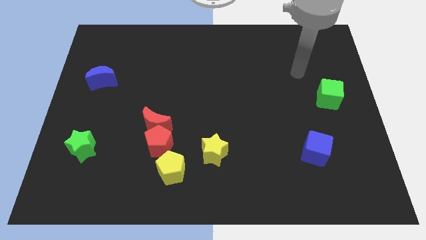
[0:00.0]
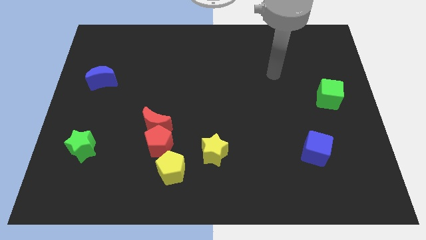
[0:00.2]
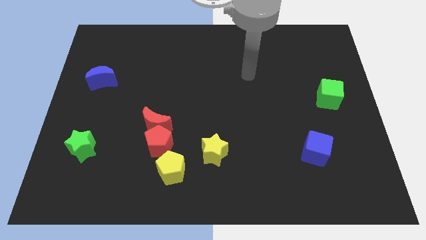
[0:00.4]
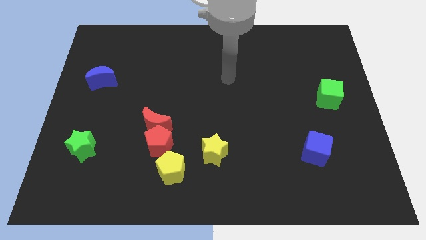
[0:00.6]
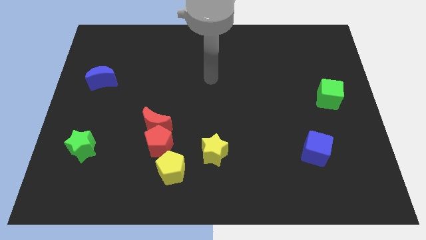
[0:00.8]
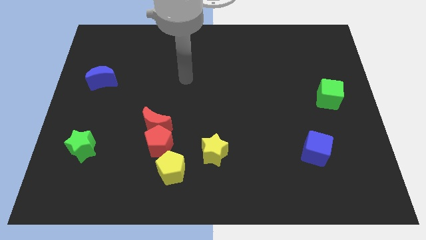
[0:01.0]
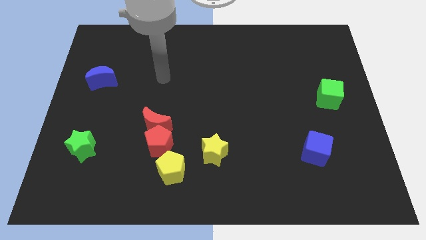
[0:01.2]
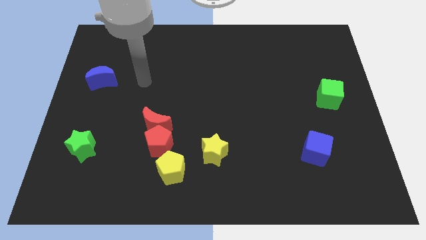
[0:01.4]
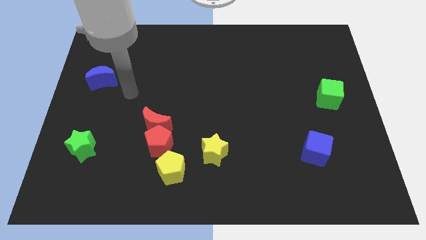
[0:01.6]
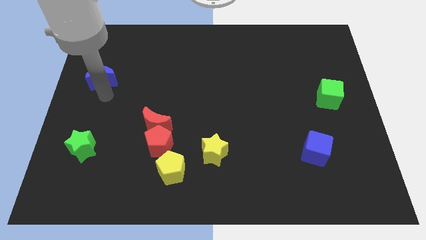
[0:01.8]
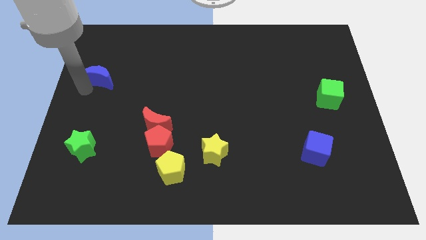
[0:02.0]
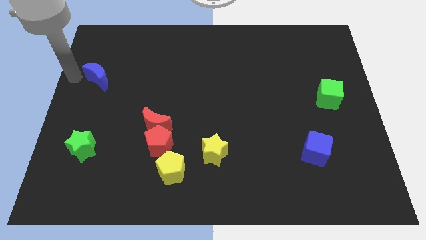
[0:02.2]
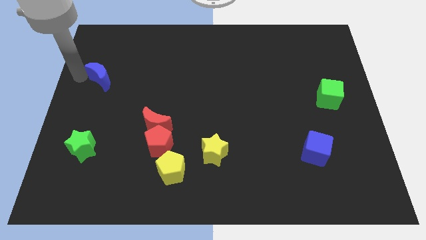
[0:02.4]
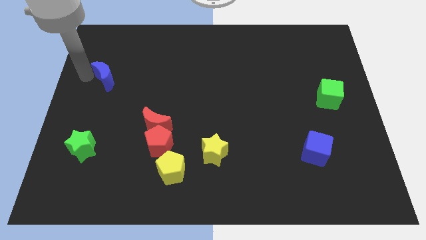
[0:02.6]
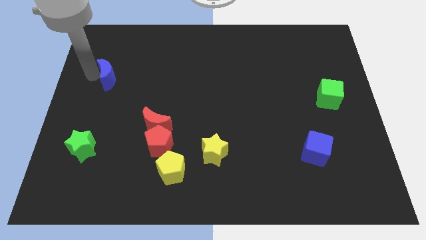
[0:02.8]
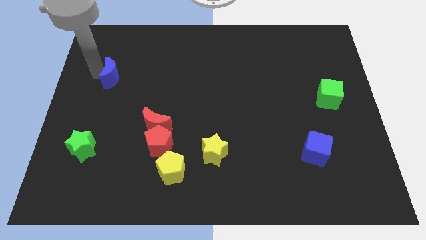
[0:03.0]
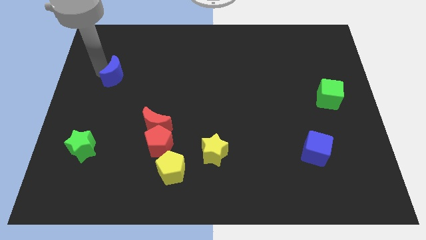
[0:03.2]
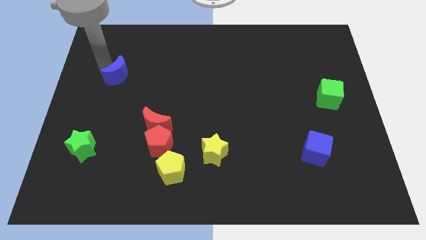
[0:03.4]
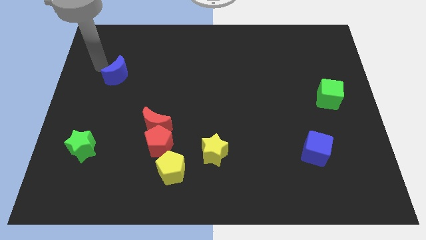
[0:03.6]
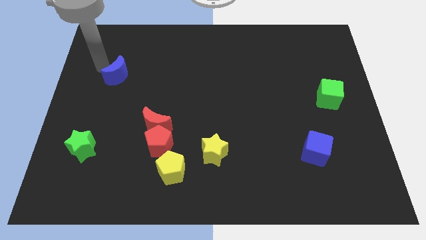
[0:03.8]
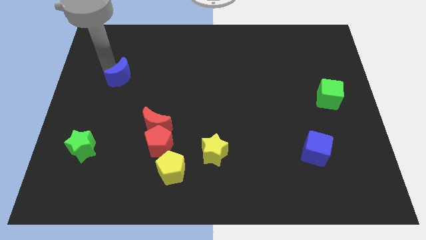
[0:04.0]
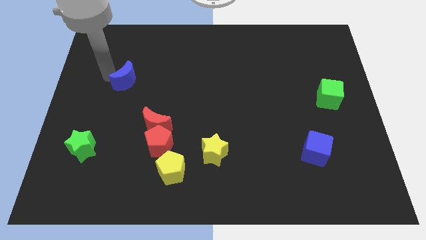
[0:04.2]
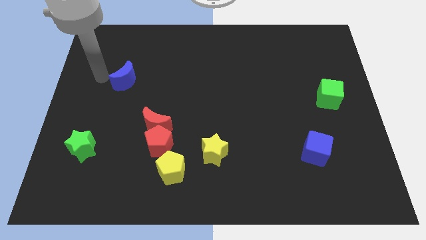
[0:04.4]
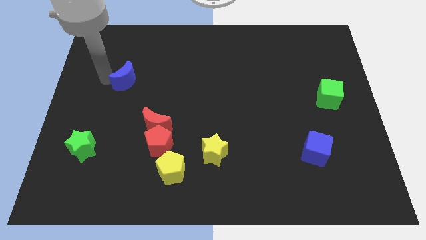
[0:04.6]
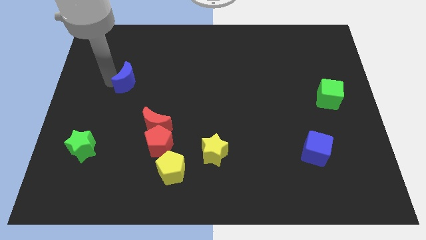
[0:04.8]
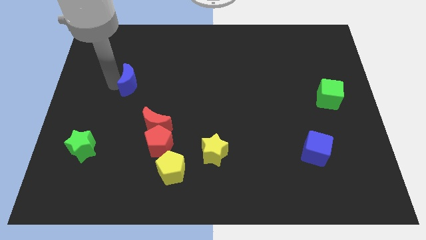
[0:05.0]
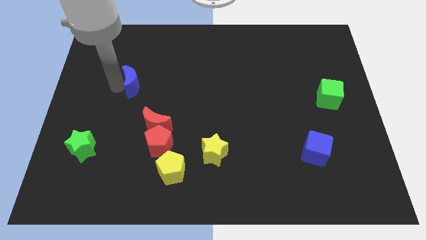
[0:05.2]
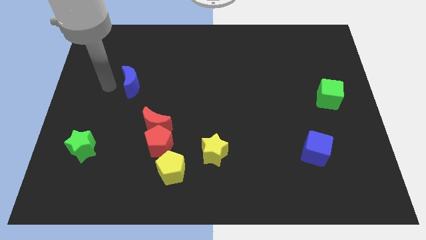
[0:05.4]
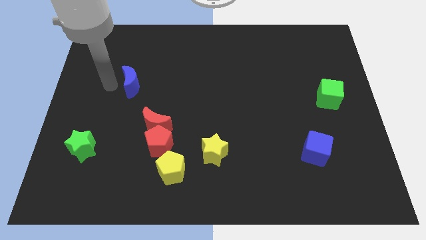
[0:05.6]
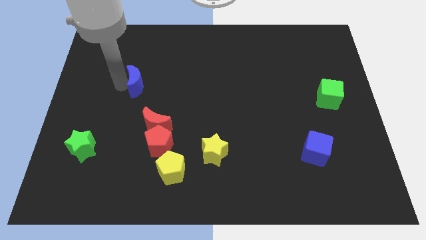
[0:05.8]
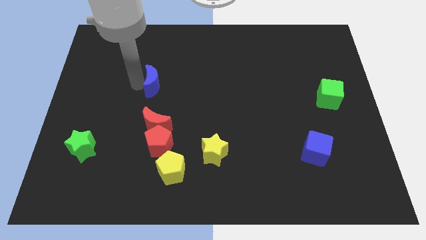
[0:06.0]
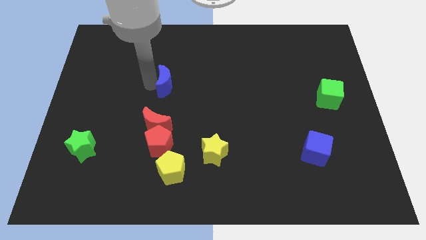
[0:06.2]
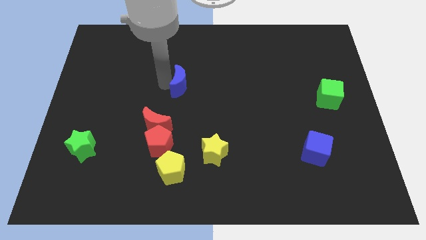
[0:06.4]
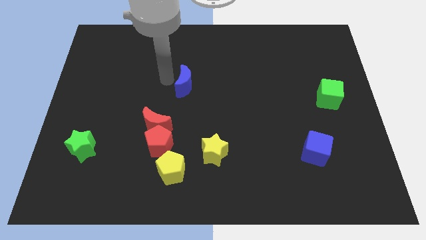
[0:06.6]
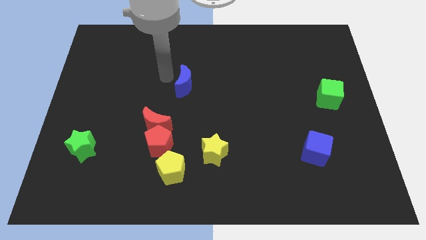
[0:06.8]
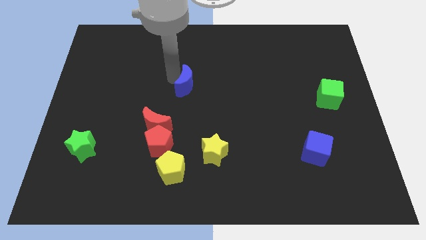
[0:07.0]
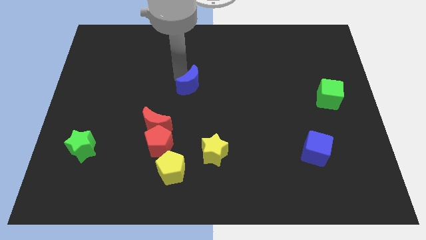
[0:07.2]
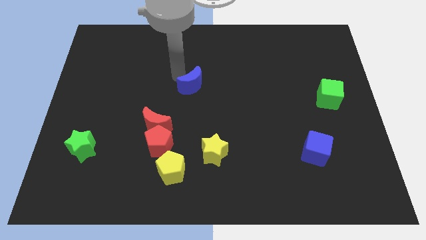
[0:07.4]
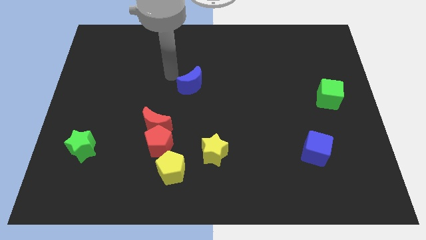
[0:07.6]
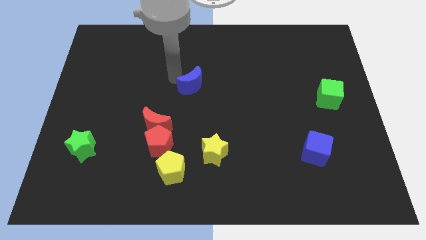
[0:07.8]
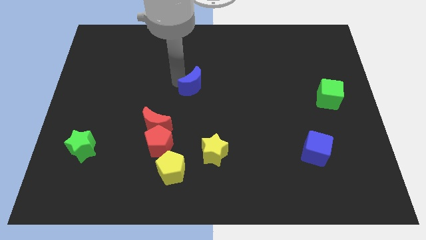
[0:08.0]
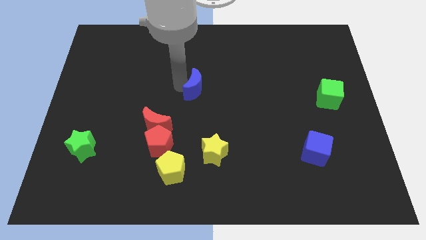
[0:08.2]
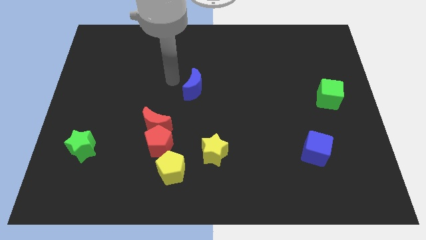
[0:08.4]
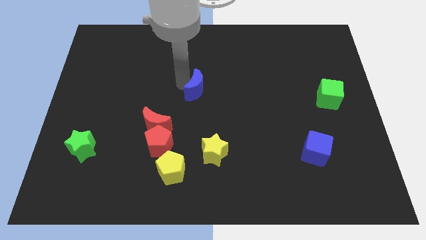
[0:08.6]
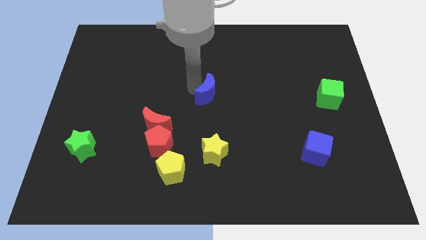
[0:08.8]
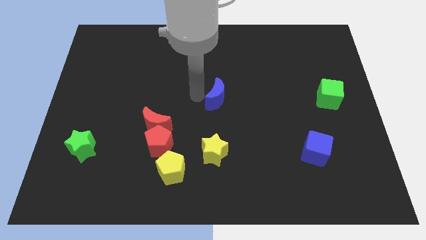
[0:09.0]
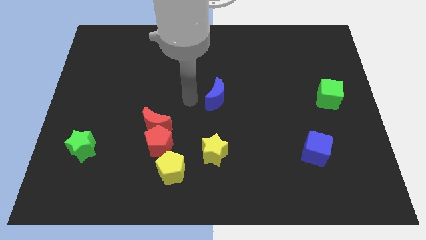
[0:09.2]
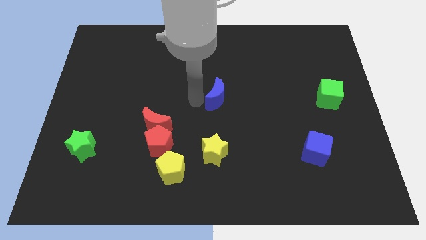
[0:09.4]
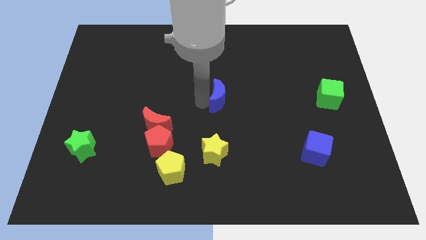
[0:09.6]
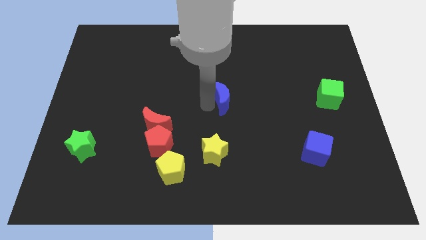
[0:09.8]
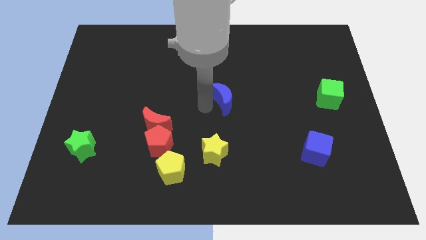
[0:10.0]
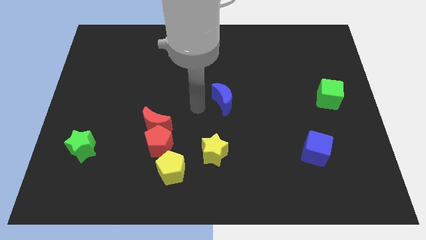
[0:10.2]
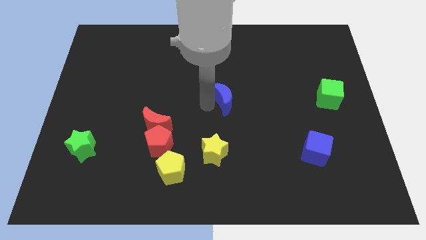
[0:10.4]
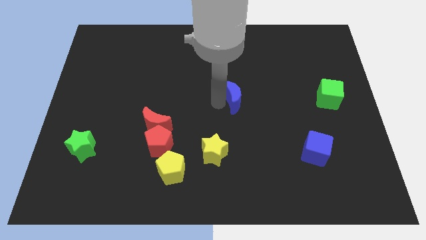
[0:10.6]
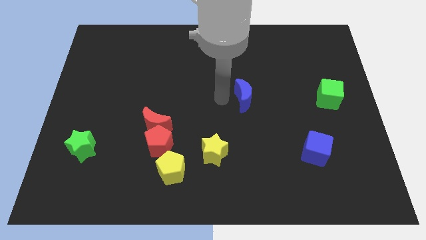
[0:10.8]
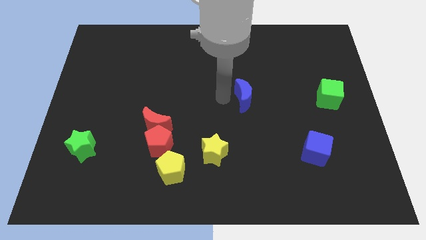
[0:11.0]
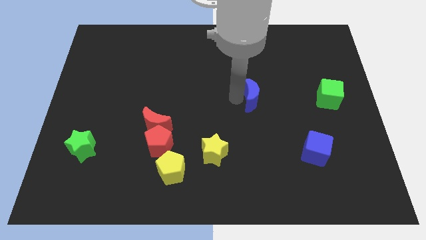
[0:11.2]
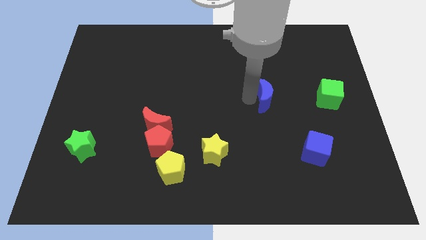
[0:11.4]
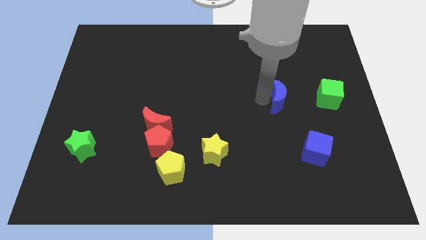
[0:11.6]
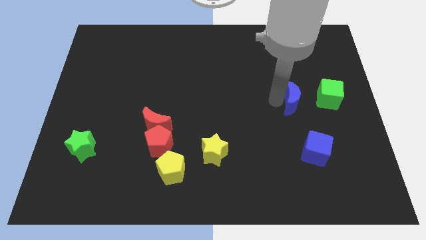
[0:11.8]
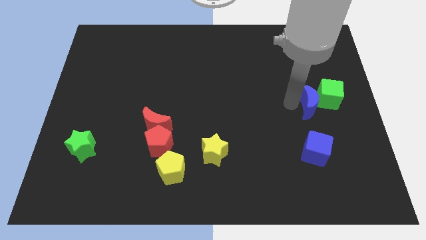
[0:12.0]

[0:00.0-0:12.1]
push the blue moon next to the green cube

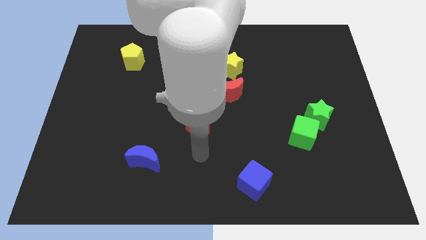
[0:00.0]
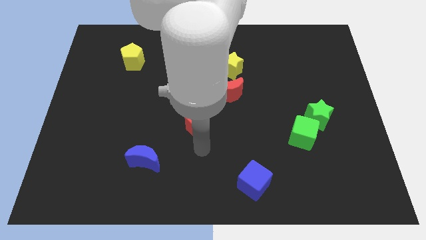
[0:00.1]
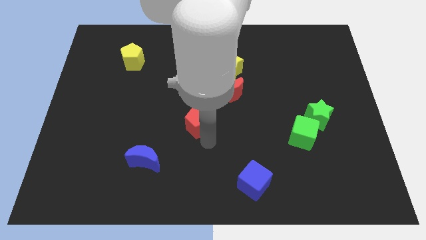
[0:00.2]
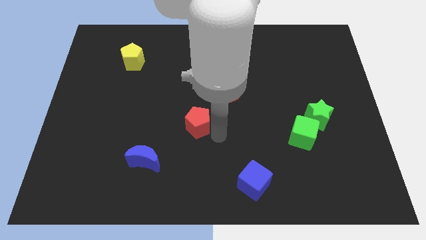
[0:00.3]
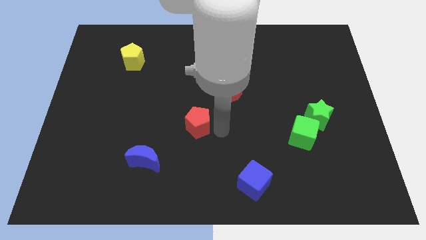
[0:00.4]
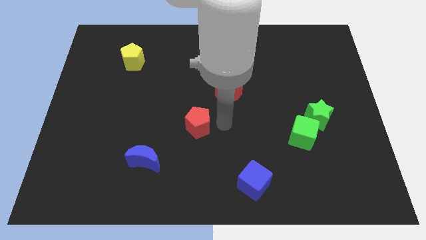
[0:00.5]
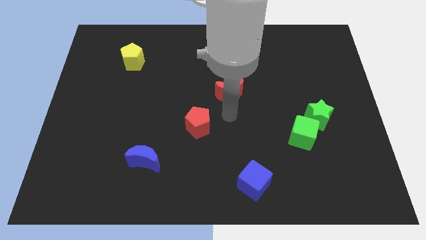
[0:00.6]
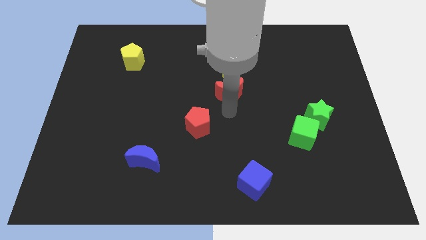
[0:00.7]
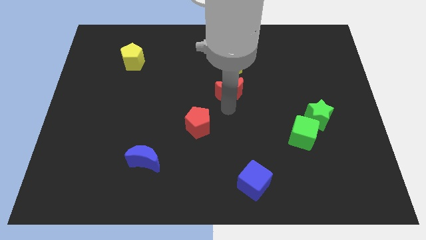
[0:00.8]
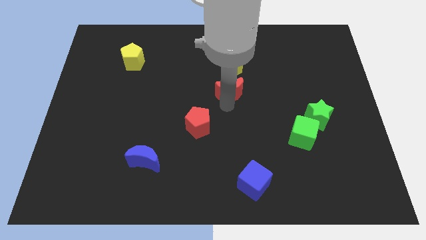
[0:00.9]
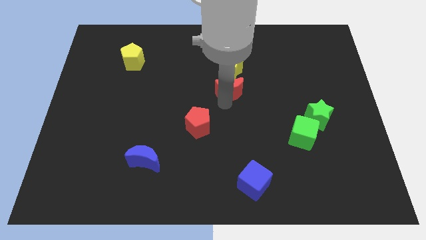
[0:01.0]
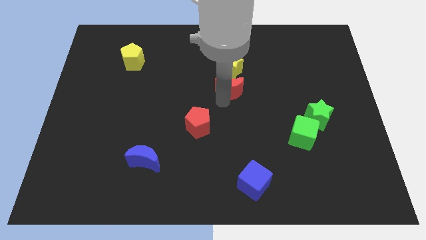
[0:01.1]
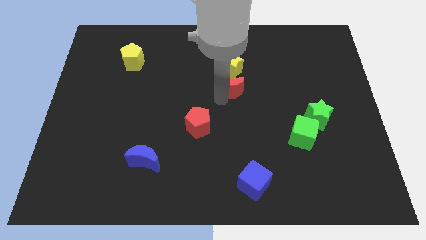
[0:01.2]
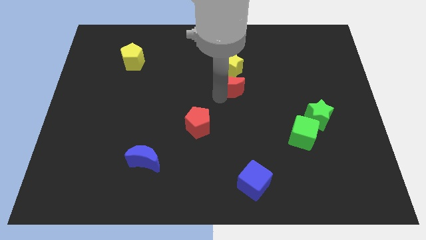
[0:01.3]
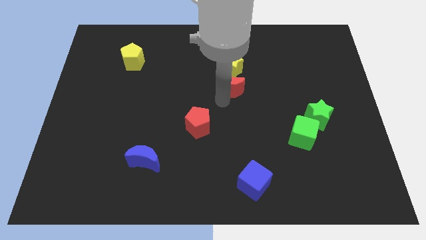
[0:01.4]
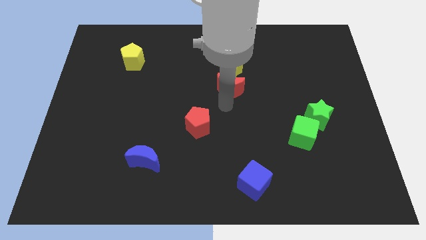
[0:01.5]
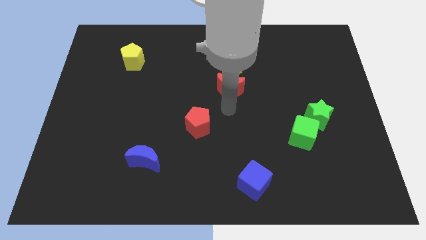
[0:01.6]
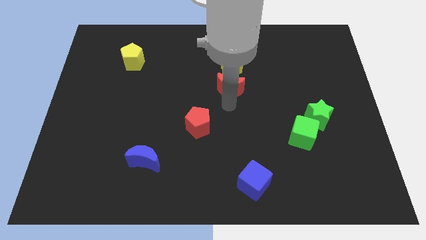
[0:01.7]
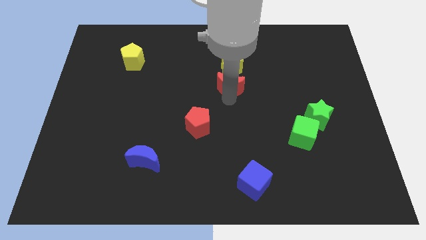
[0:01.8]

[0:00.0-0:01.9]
put the red moon to the yellow star
